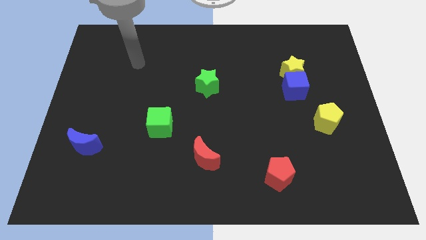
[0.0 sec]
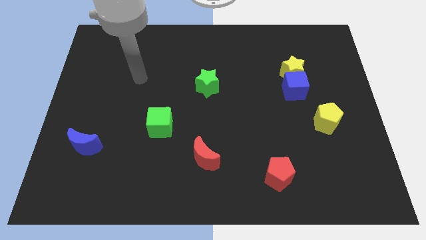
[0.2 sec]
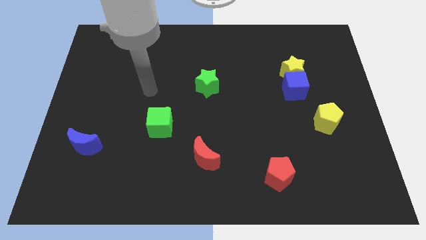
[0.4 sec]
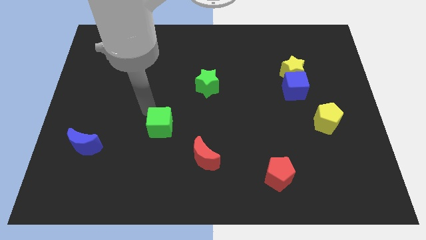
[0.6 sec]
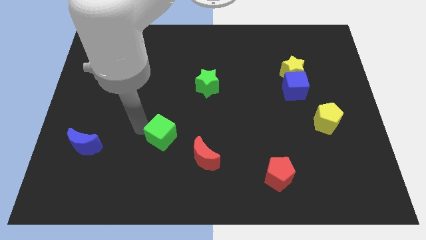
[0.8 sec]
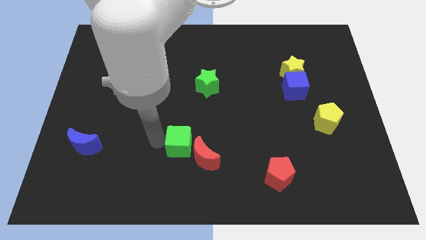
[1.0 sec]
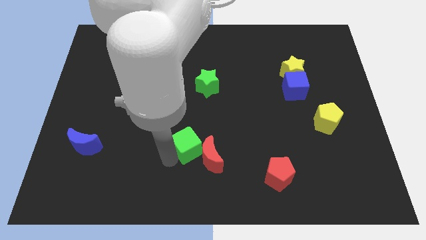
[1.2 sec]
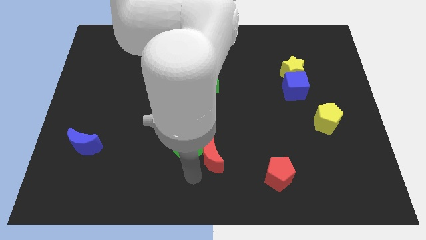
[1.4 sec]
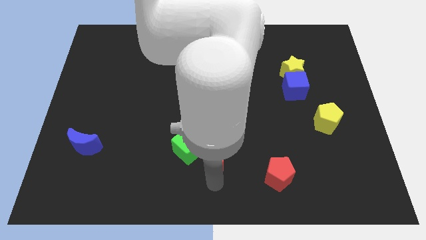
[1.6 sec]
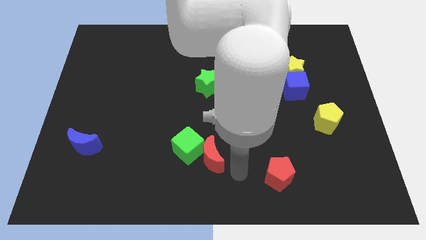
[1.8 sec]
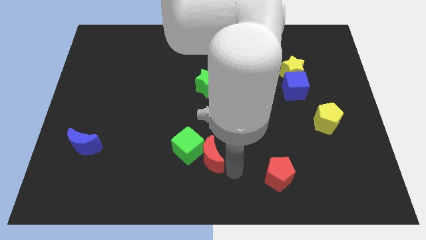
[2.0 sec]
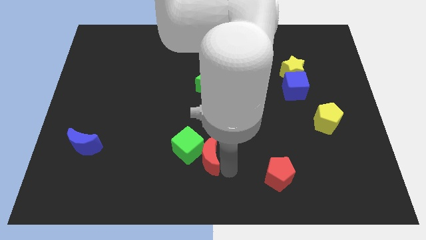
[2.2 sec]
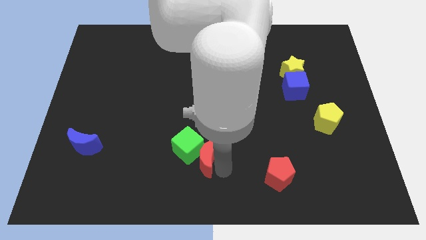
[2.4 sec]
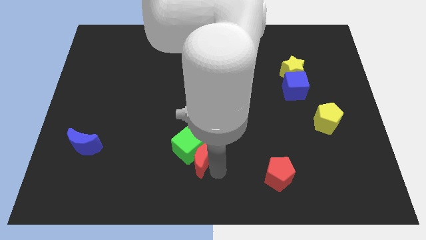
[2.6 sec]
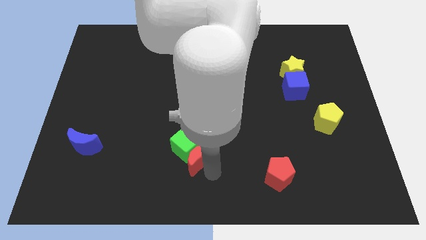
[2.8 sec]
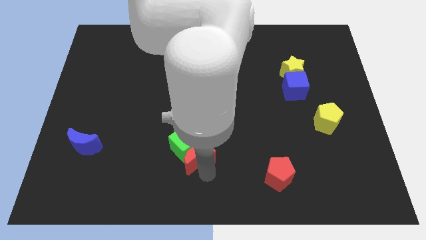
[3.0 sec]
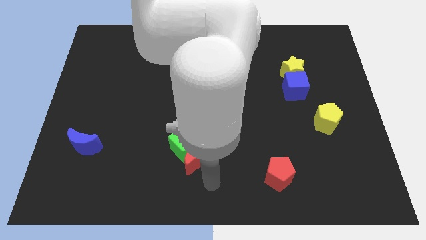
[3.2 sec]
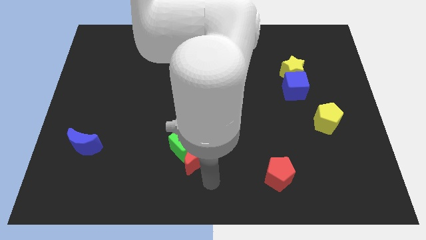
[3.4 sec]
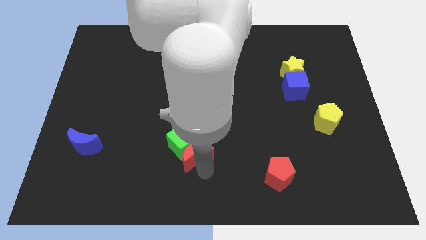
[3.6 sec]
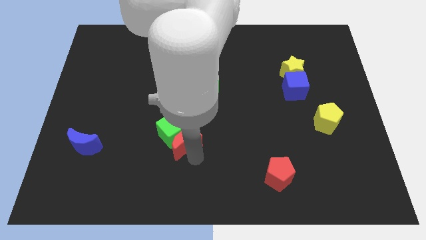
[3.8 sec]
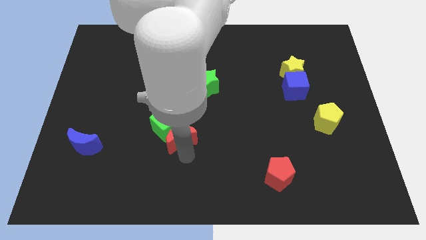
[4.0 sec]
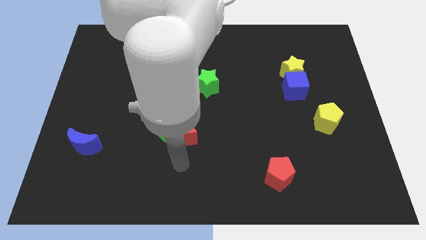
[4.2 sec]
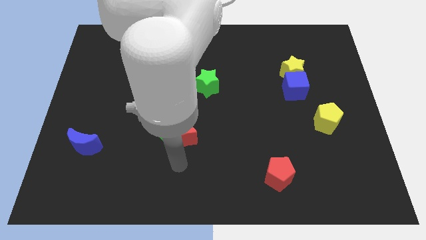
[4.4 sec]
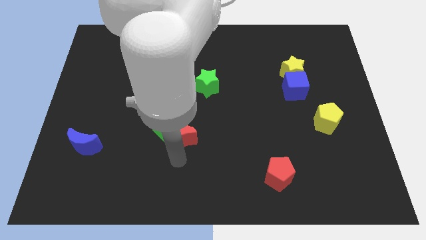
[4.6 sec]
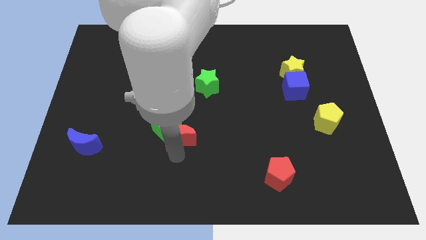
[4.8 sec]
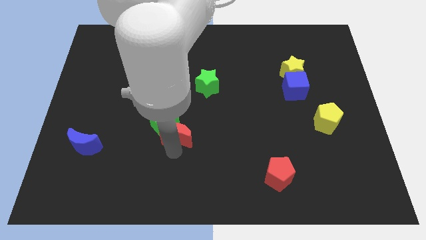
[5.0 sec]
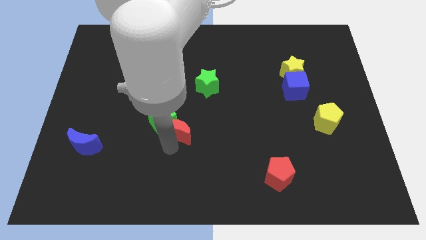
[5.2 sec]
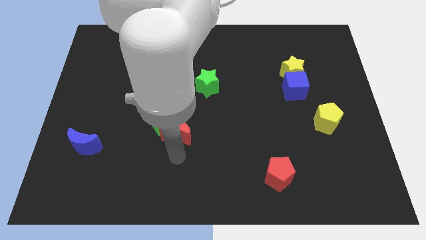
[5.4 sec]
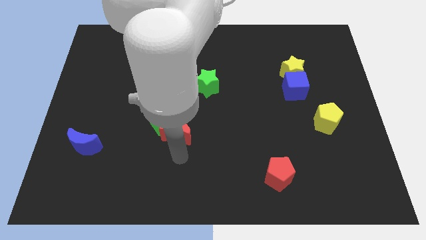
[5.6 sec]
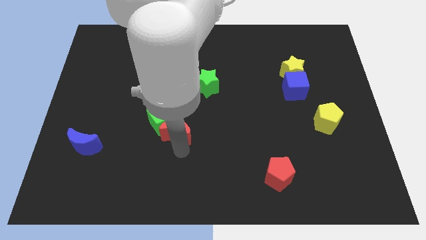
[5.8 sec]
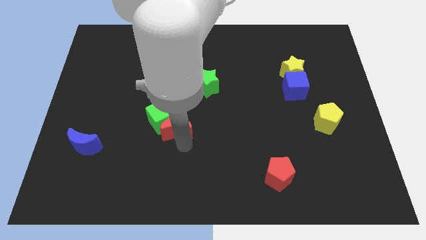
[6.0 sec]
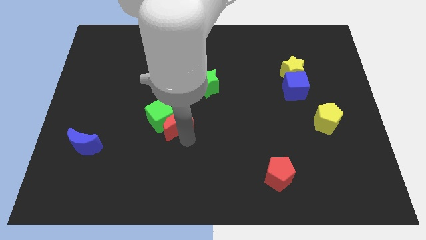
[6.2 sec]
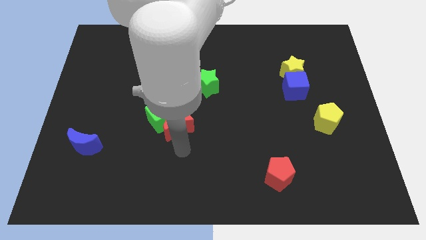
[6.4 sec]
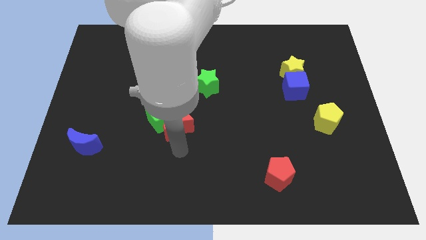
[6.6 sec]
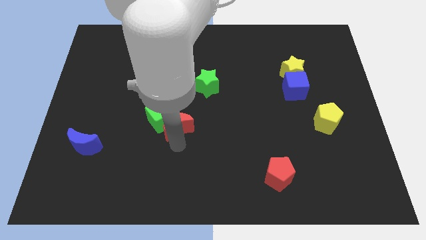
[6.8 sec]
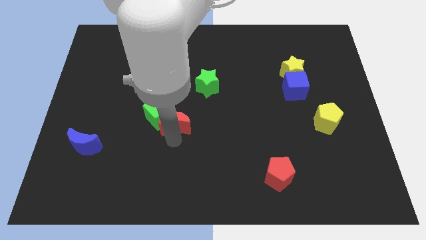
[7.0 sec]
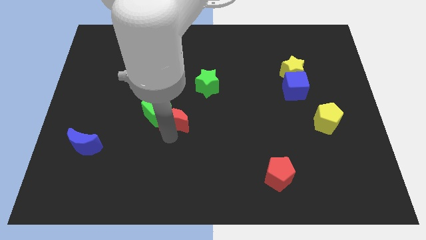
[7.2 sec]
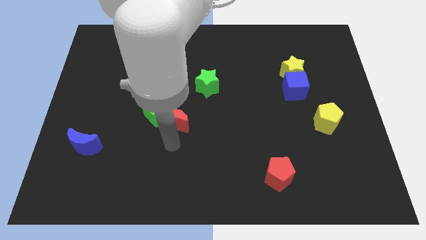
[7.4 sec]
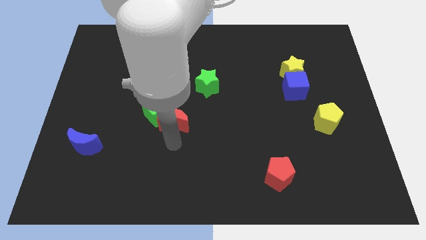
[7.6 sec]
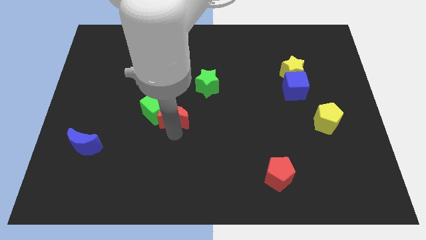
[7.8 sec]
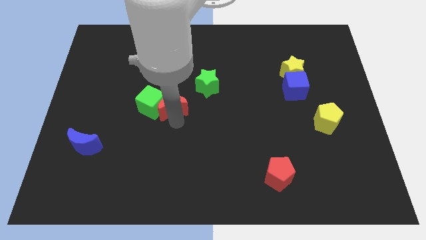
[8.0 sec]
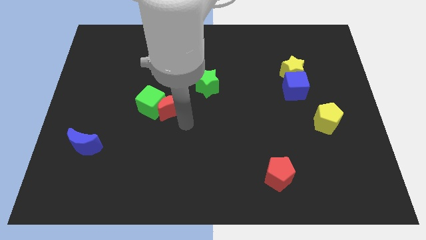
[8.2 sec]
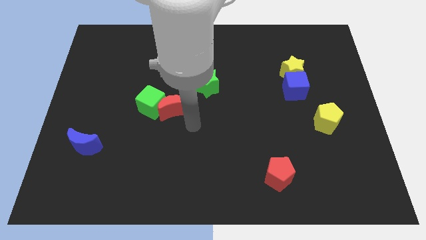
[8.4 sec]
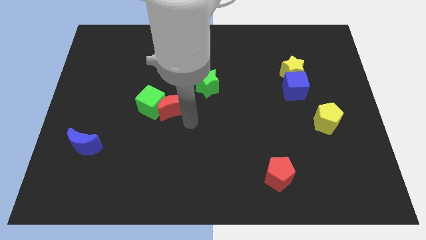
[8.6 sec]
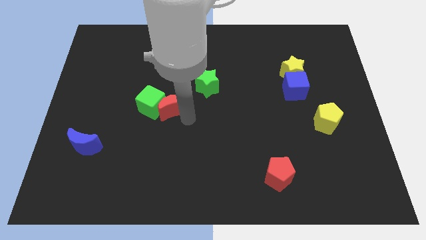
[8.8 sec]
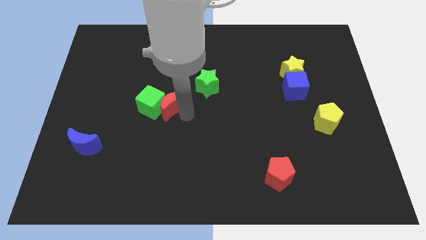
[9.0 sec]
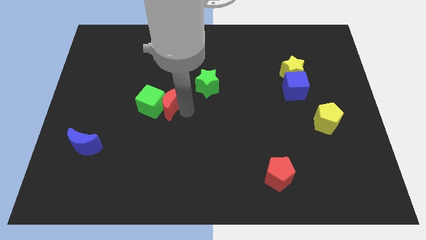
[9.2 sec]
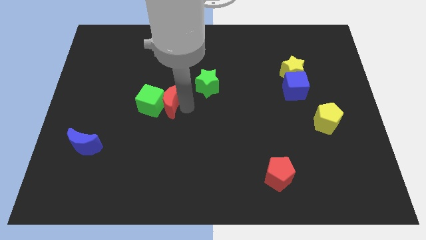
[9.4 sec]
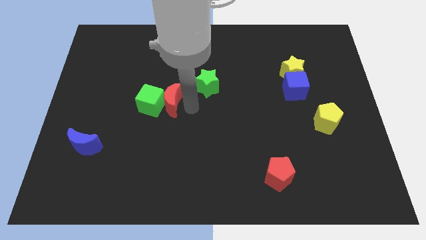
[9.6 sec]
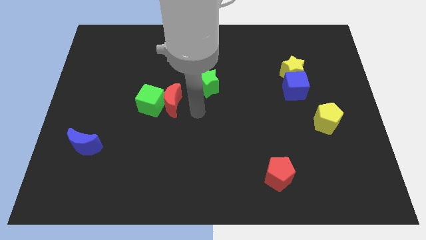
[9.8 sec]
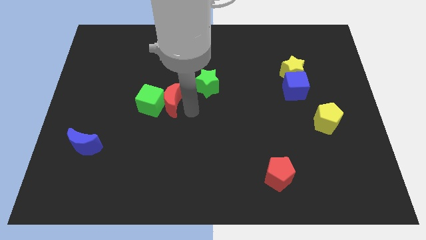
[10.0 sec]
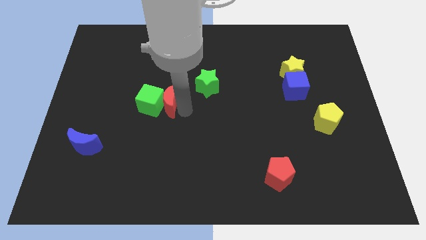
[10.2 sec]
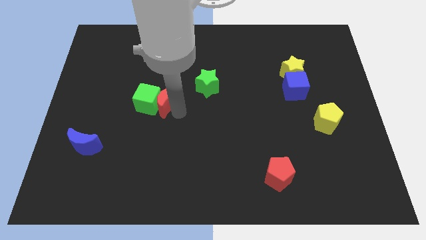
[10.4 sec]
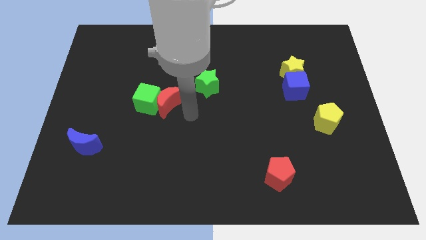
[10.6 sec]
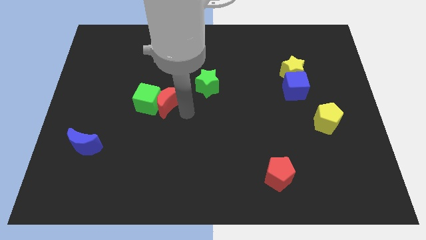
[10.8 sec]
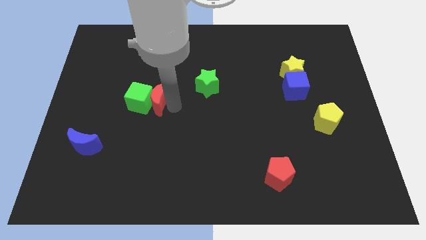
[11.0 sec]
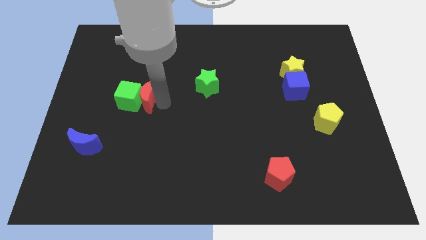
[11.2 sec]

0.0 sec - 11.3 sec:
slide the red moon diagonally up and left

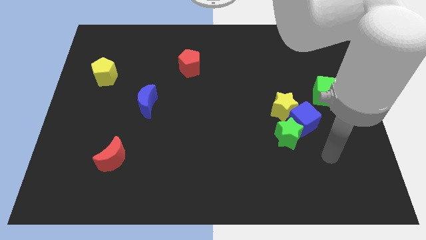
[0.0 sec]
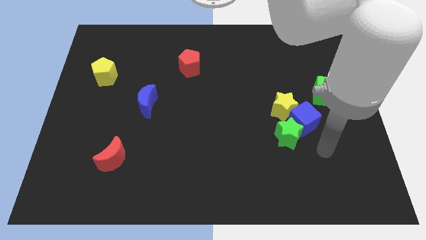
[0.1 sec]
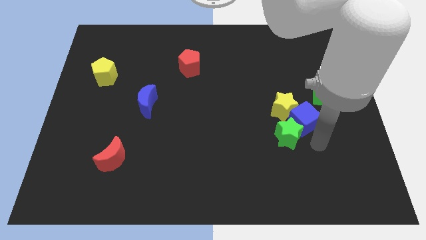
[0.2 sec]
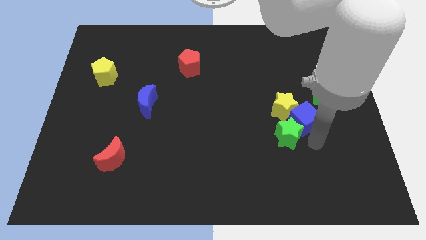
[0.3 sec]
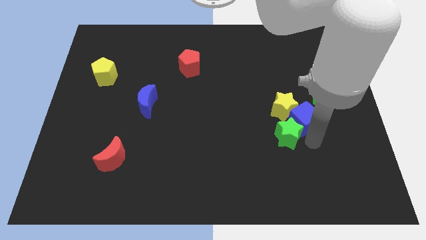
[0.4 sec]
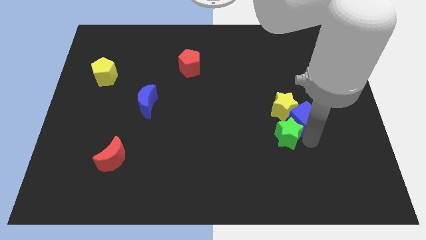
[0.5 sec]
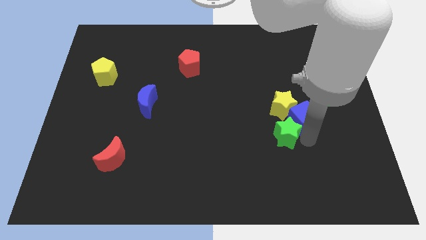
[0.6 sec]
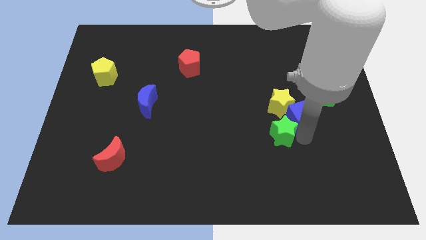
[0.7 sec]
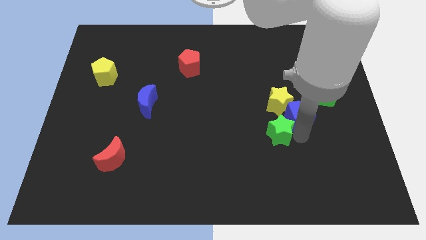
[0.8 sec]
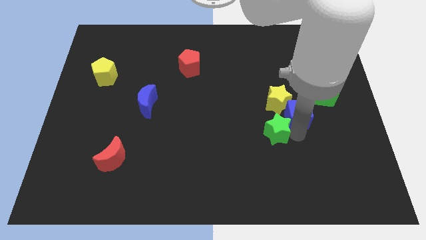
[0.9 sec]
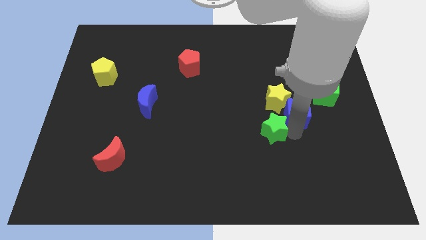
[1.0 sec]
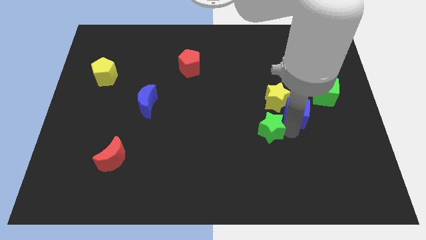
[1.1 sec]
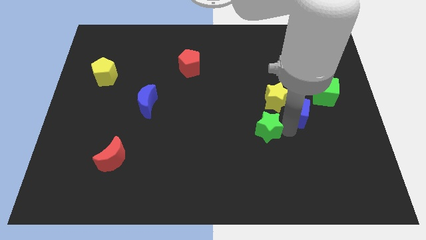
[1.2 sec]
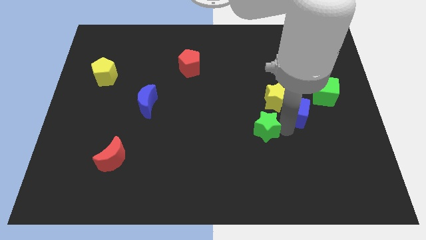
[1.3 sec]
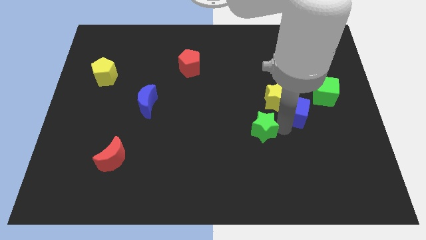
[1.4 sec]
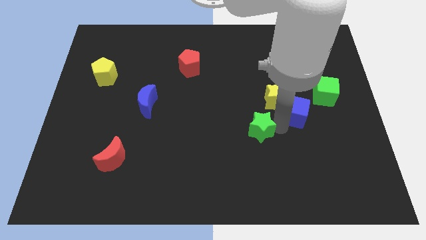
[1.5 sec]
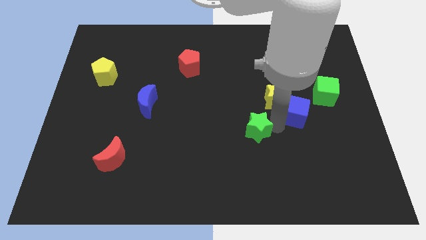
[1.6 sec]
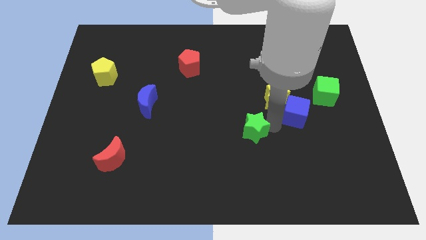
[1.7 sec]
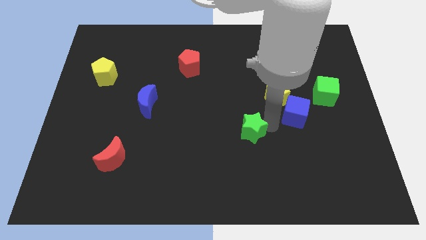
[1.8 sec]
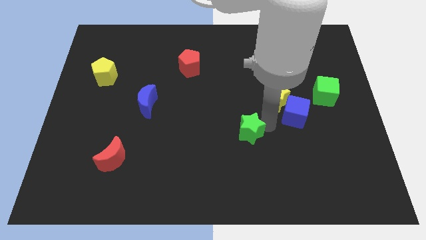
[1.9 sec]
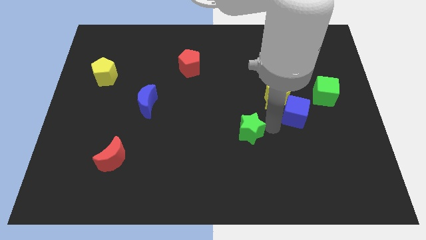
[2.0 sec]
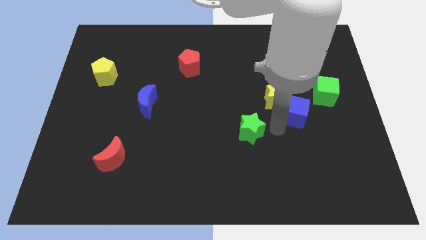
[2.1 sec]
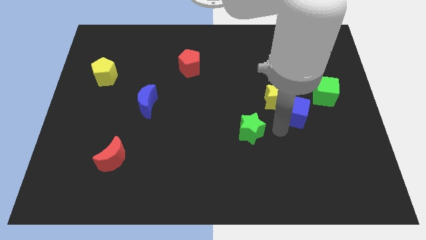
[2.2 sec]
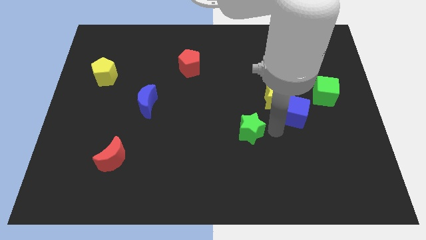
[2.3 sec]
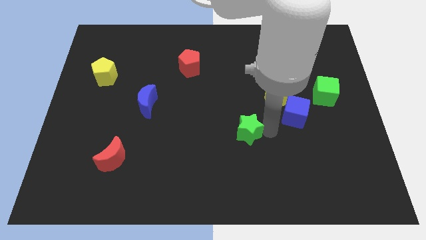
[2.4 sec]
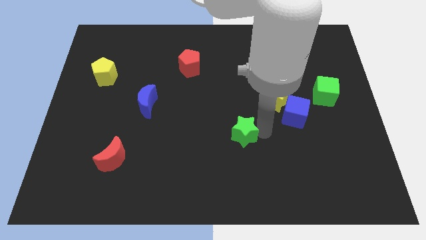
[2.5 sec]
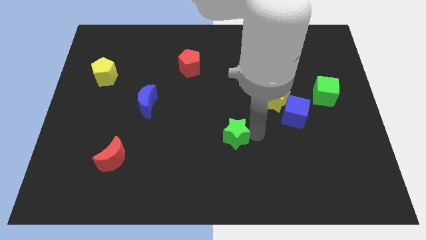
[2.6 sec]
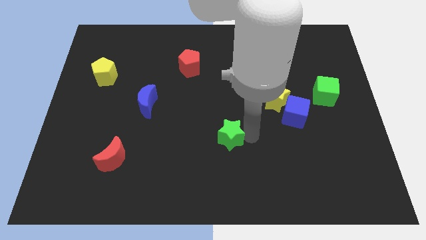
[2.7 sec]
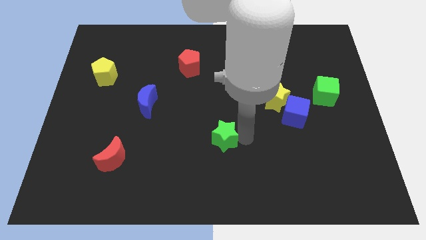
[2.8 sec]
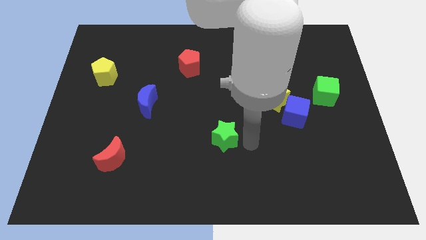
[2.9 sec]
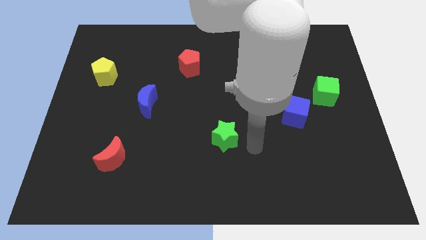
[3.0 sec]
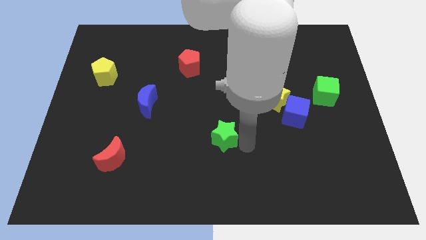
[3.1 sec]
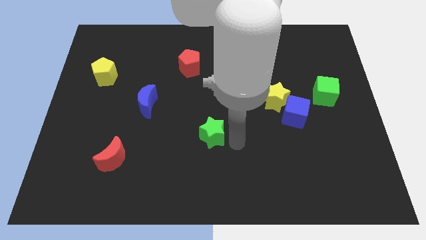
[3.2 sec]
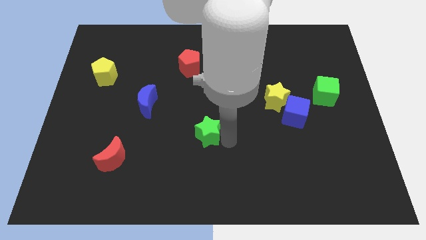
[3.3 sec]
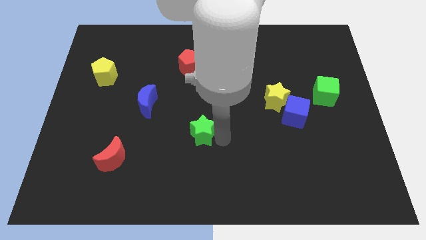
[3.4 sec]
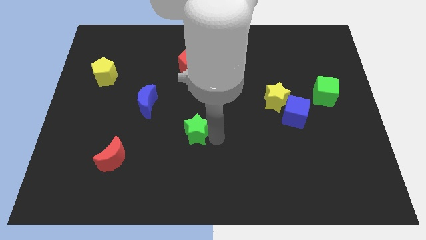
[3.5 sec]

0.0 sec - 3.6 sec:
slide the green star left
